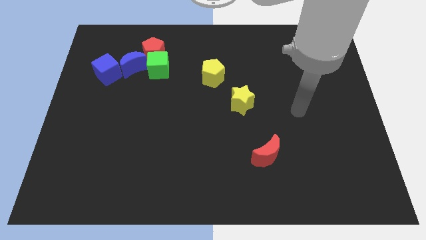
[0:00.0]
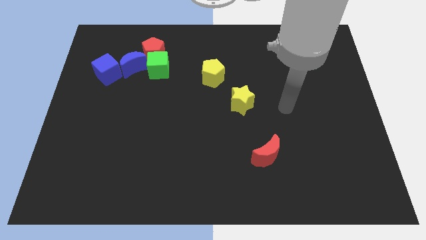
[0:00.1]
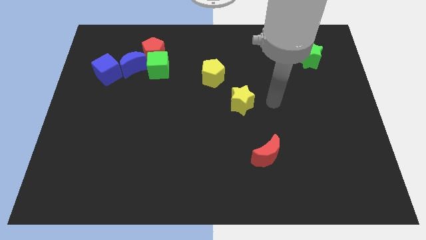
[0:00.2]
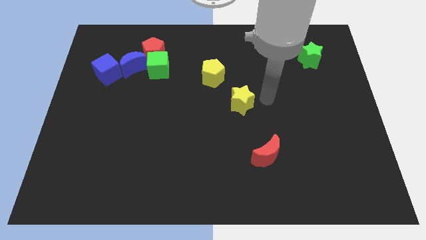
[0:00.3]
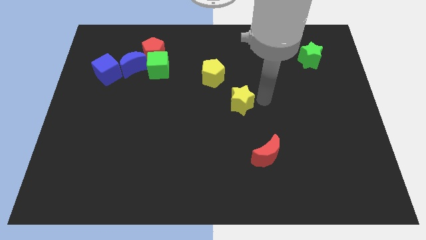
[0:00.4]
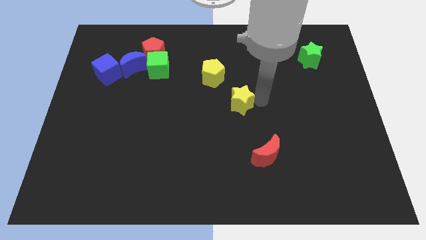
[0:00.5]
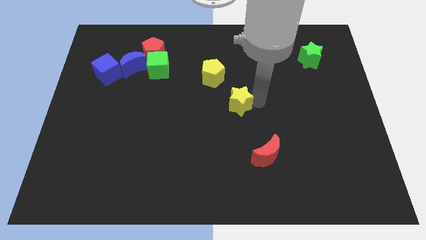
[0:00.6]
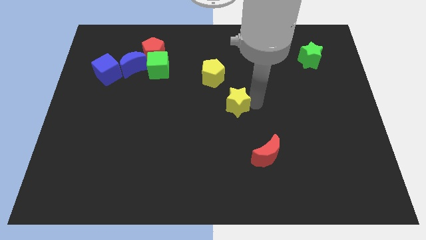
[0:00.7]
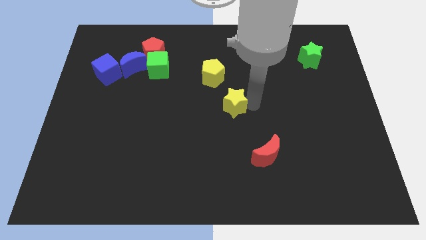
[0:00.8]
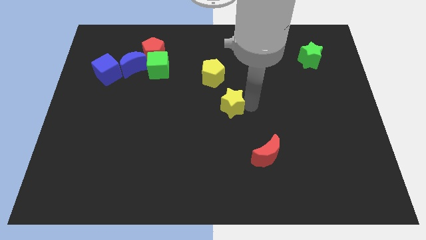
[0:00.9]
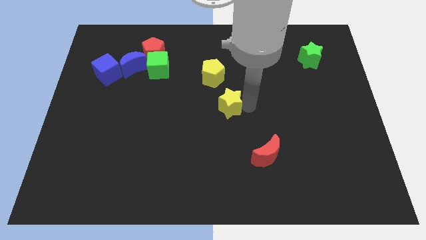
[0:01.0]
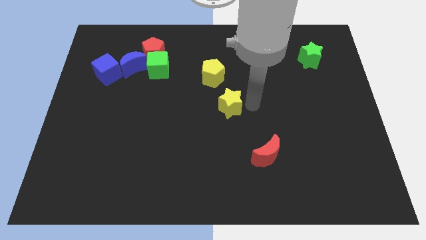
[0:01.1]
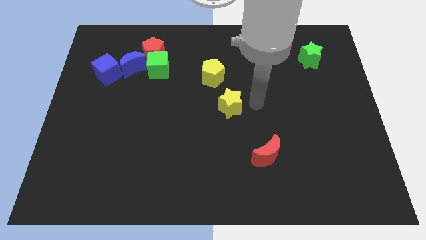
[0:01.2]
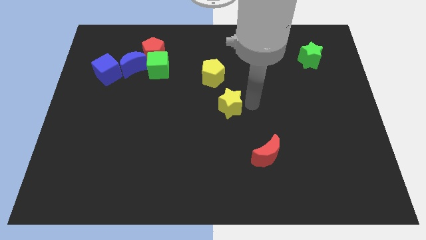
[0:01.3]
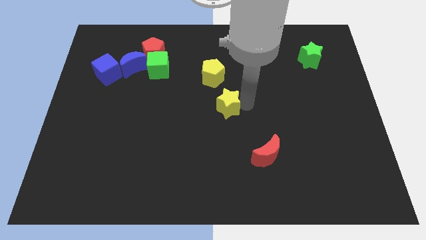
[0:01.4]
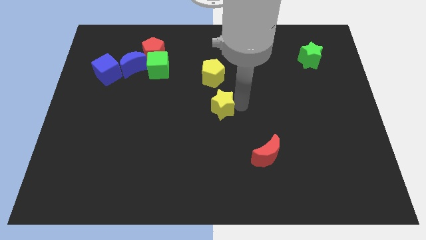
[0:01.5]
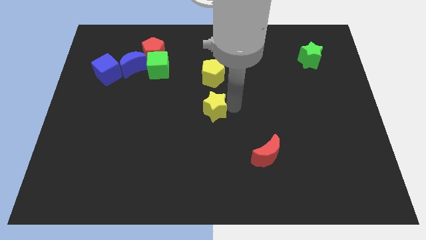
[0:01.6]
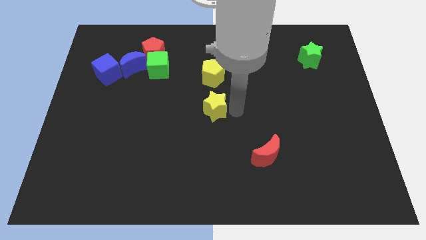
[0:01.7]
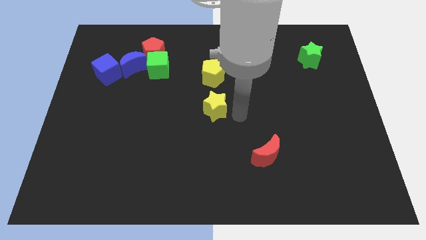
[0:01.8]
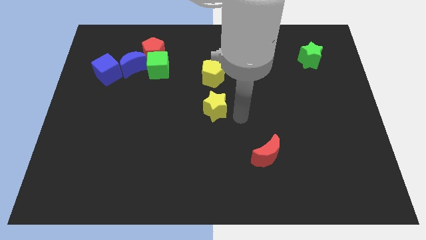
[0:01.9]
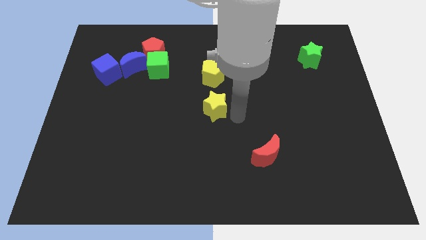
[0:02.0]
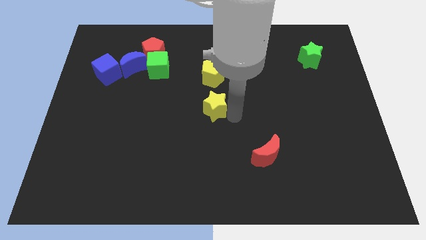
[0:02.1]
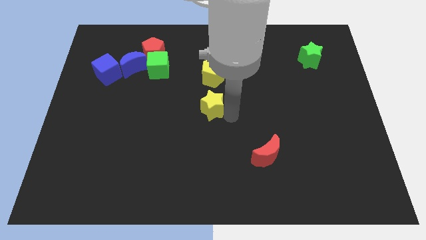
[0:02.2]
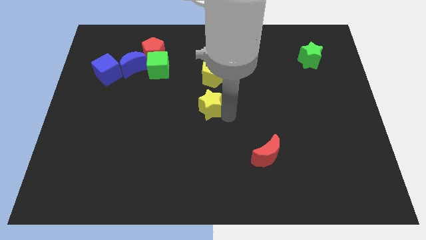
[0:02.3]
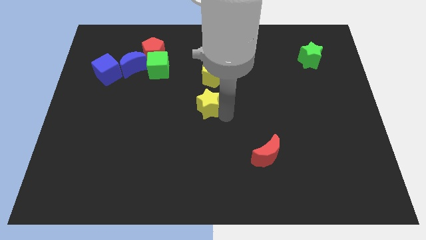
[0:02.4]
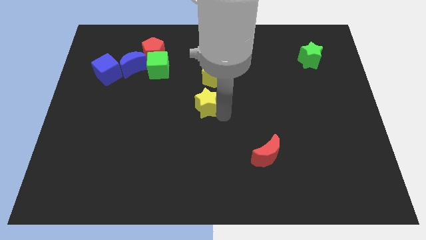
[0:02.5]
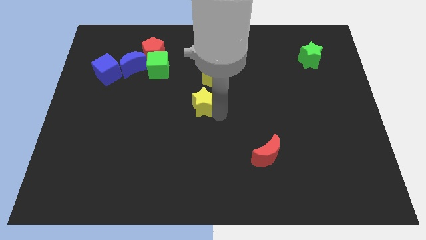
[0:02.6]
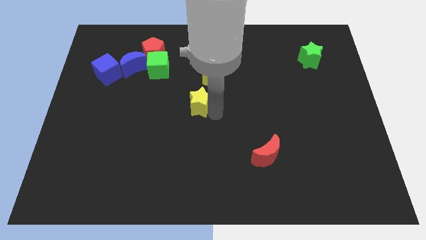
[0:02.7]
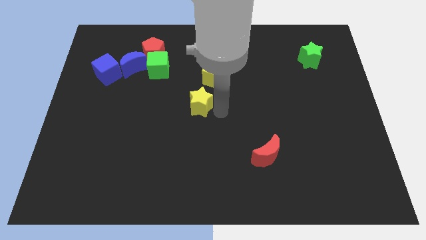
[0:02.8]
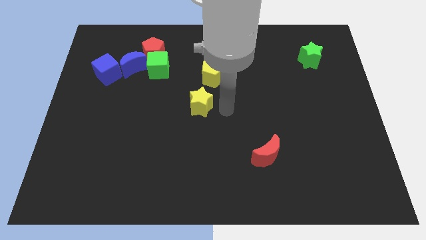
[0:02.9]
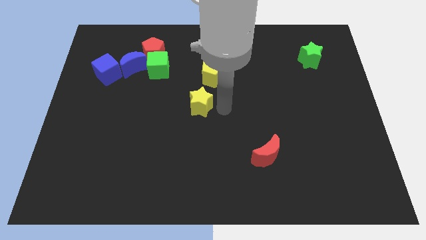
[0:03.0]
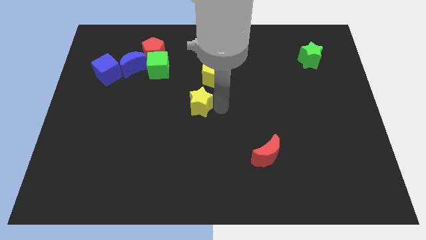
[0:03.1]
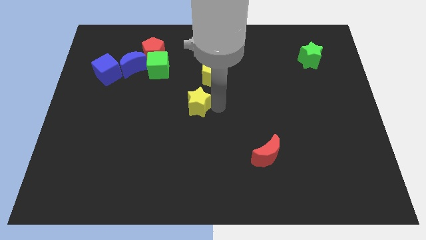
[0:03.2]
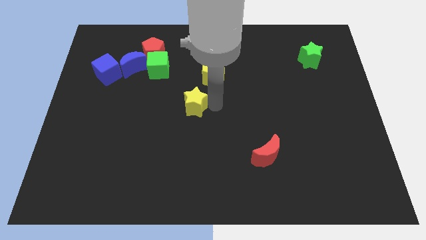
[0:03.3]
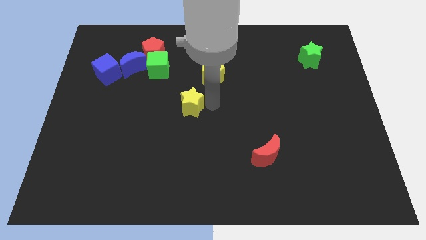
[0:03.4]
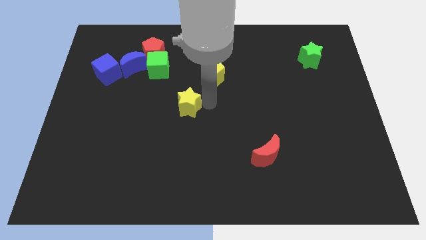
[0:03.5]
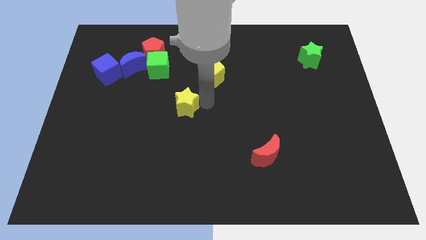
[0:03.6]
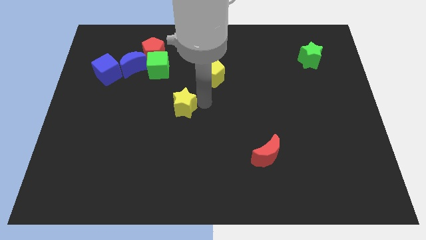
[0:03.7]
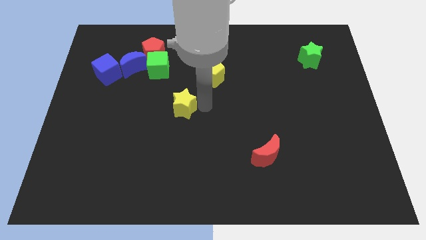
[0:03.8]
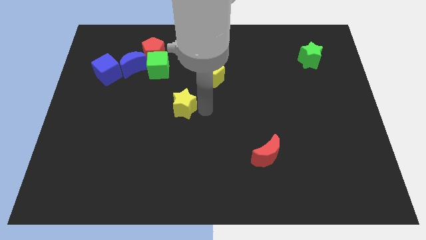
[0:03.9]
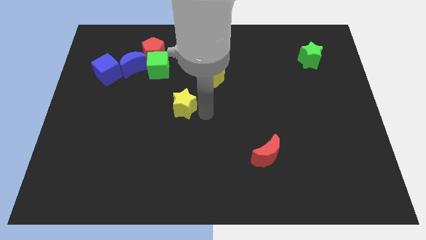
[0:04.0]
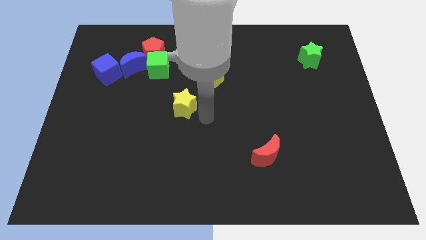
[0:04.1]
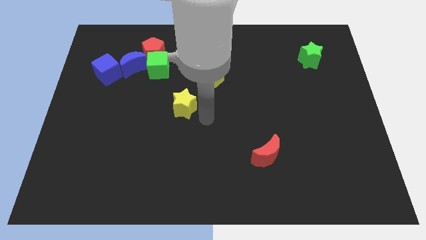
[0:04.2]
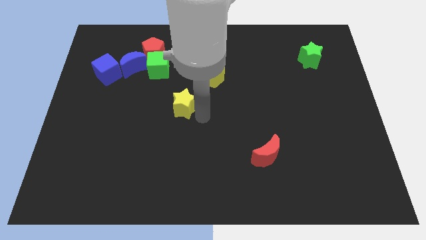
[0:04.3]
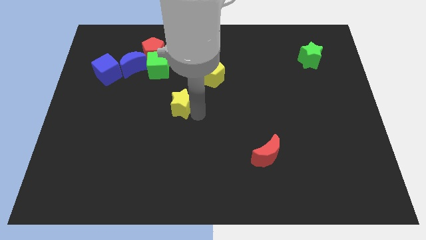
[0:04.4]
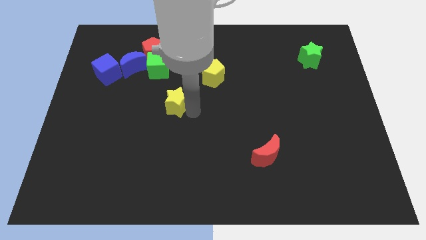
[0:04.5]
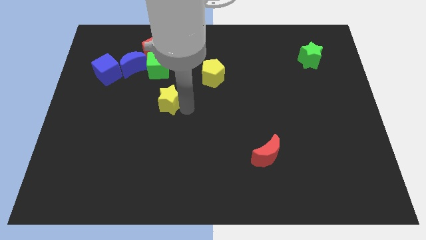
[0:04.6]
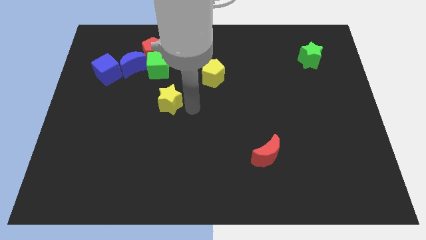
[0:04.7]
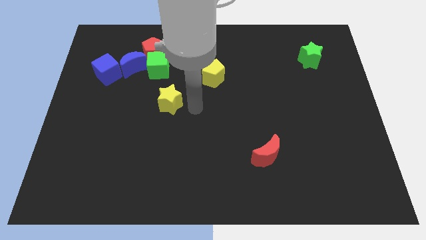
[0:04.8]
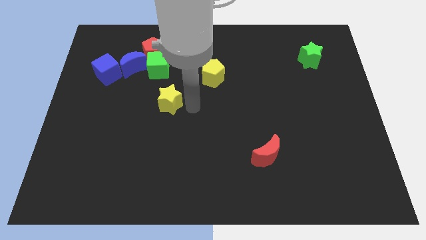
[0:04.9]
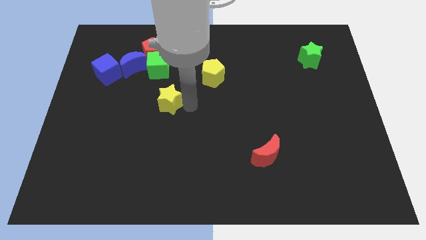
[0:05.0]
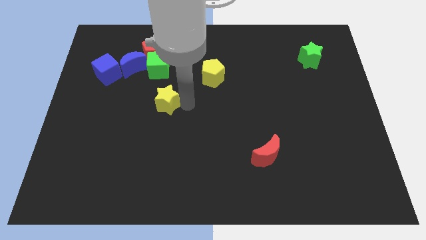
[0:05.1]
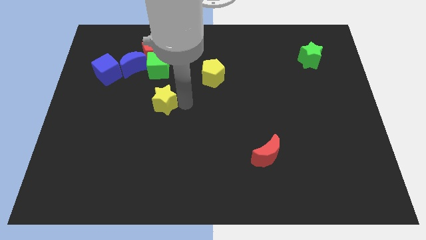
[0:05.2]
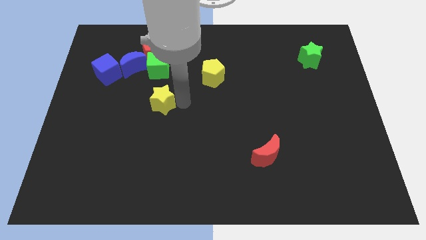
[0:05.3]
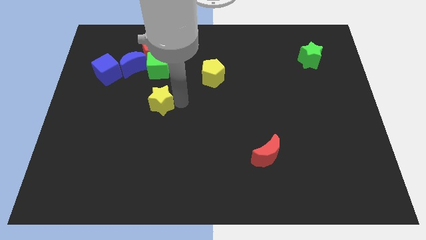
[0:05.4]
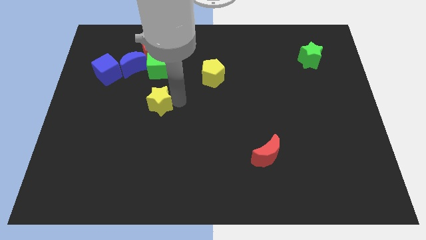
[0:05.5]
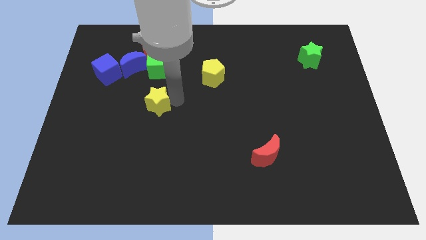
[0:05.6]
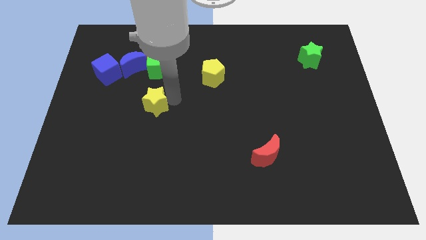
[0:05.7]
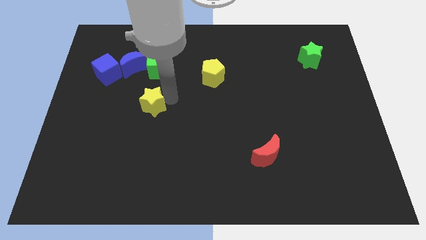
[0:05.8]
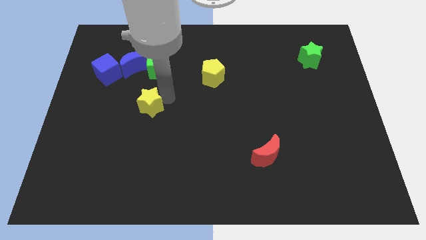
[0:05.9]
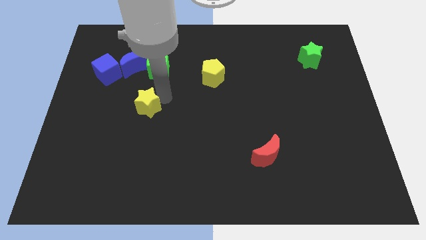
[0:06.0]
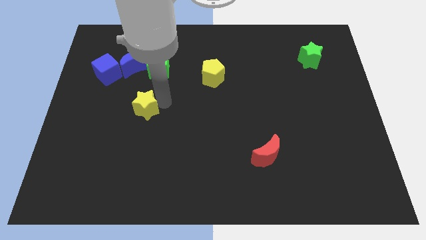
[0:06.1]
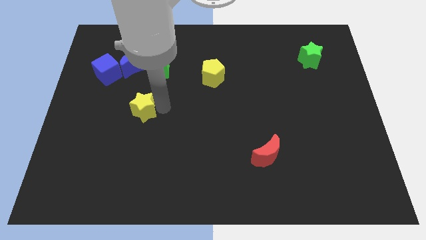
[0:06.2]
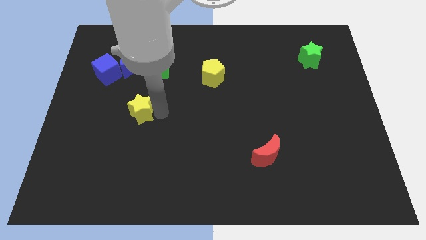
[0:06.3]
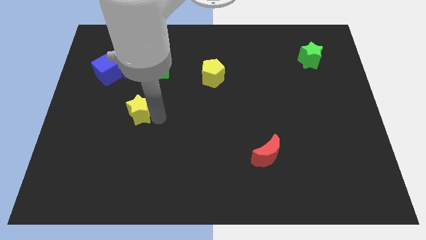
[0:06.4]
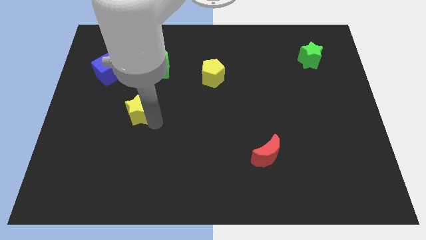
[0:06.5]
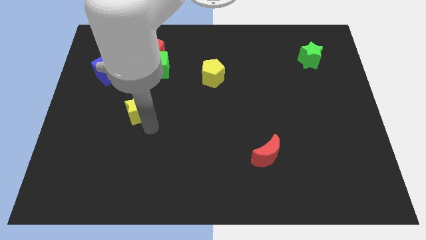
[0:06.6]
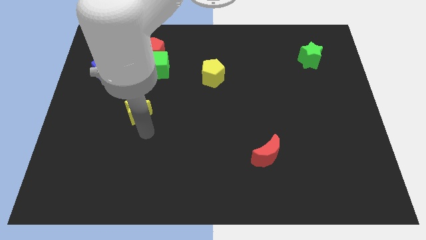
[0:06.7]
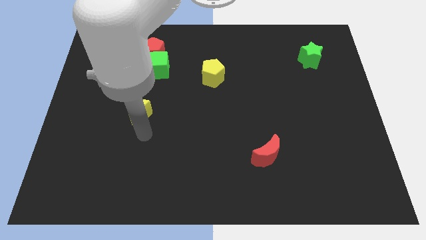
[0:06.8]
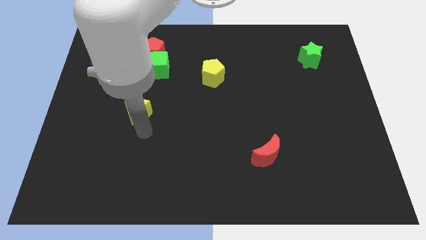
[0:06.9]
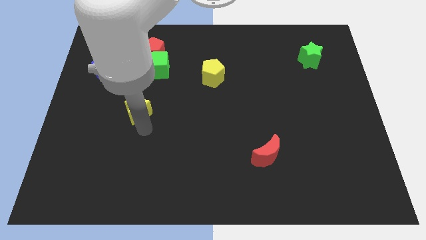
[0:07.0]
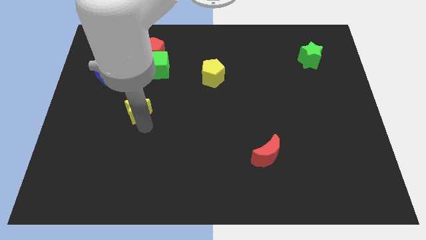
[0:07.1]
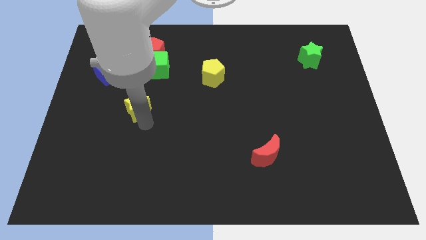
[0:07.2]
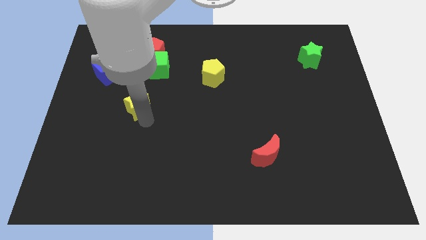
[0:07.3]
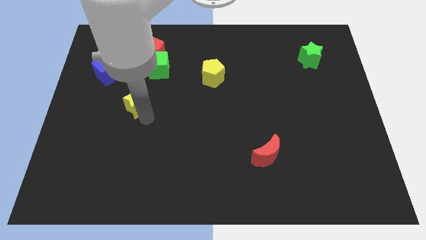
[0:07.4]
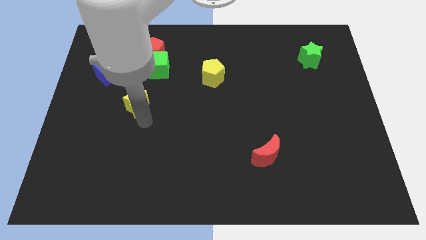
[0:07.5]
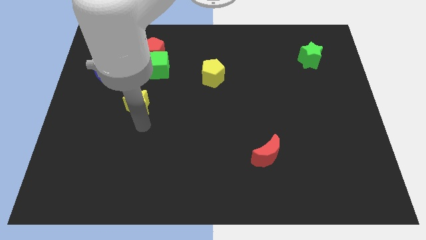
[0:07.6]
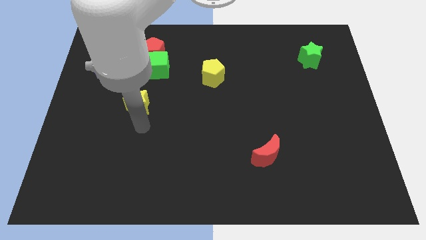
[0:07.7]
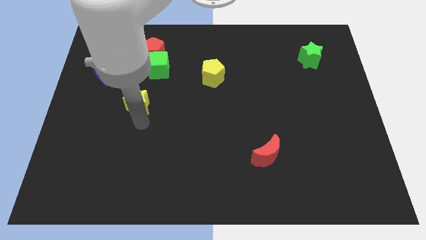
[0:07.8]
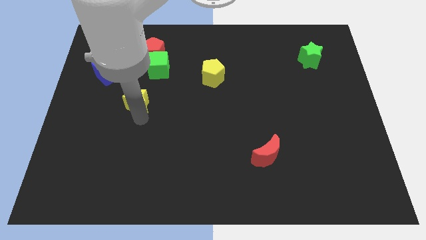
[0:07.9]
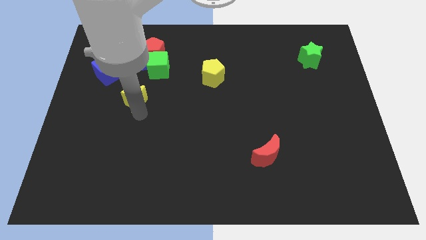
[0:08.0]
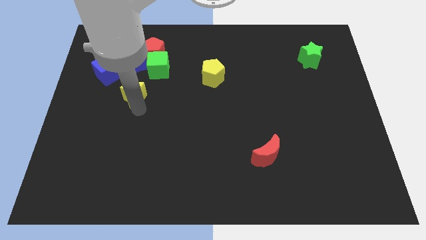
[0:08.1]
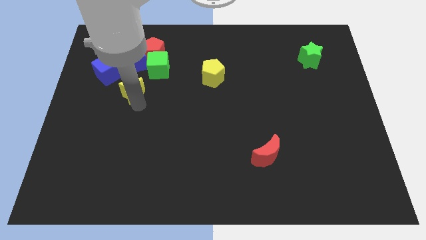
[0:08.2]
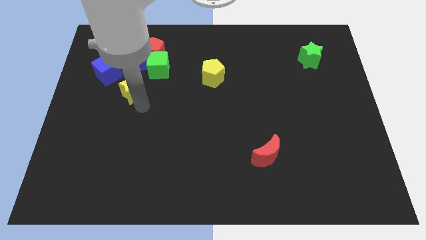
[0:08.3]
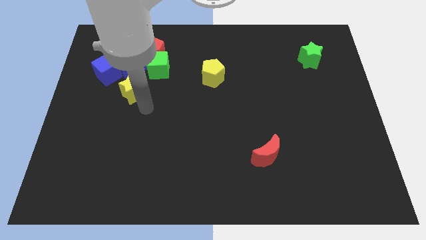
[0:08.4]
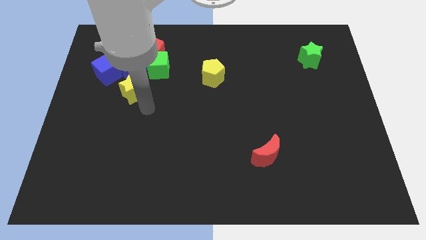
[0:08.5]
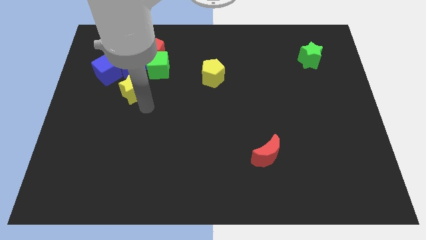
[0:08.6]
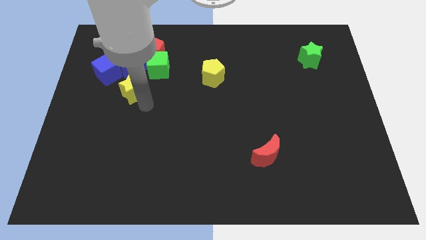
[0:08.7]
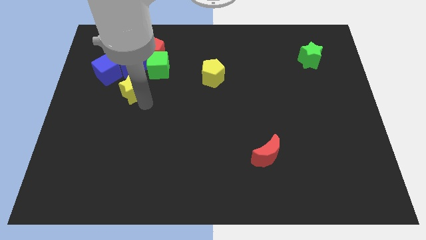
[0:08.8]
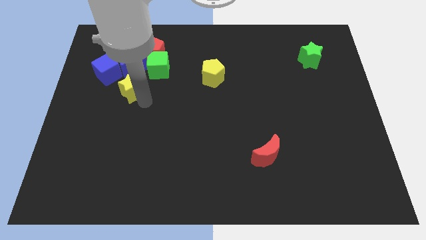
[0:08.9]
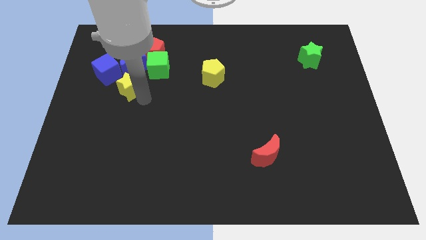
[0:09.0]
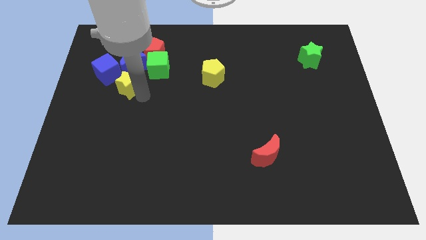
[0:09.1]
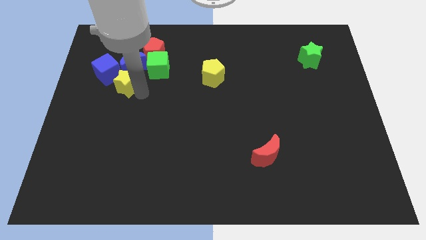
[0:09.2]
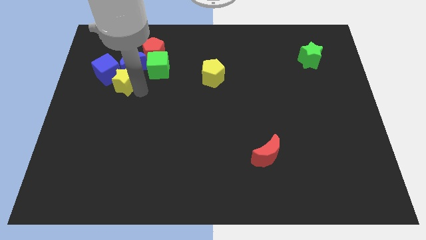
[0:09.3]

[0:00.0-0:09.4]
move the yellow star next to the blue cube
